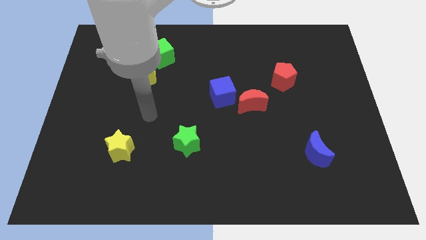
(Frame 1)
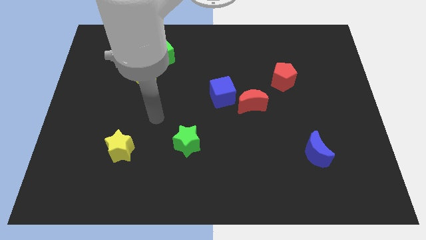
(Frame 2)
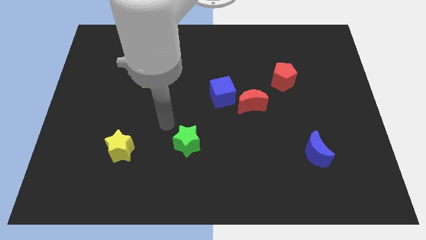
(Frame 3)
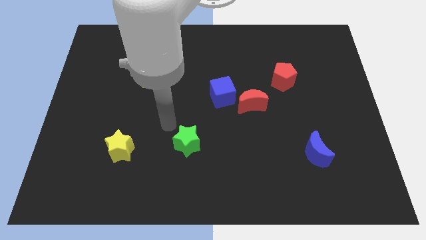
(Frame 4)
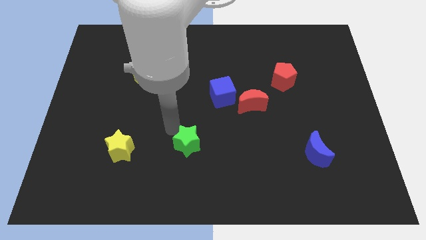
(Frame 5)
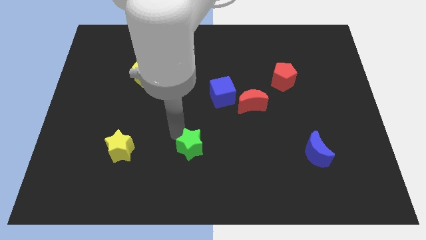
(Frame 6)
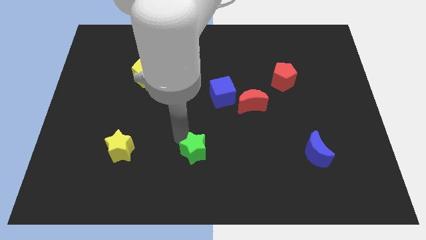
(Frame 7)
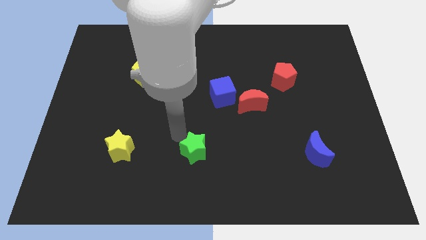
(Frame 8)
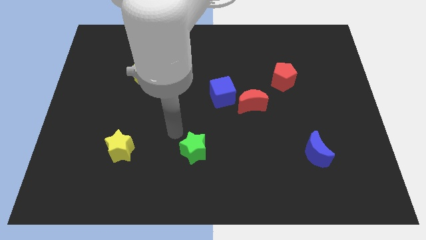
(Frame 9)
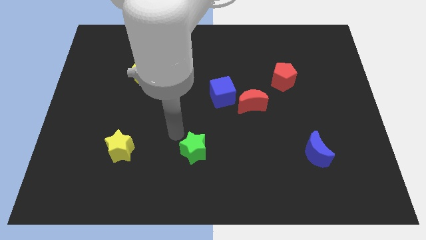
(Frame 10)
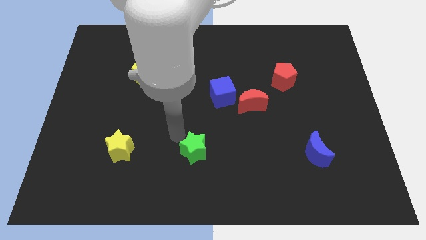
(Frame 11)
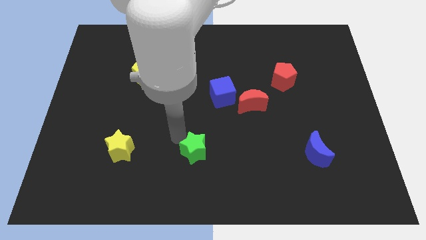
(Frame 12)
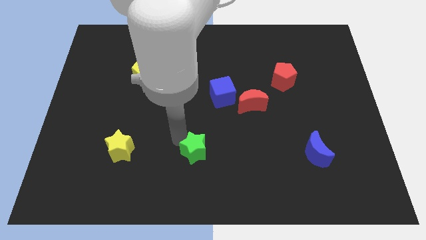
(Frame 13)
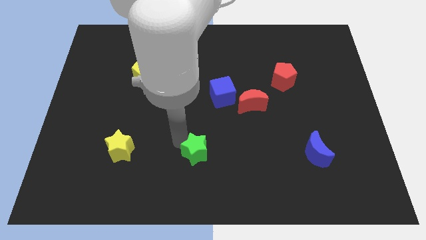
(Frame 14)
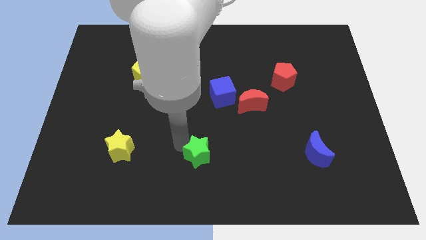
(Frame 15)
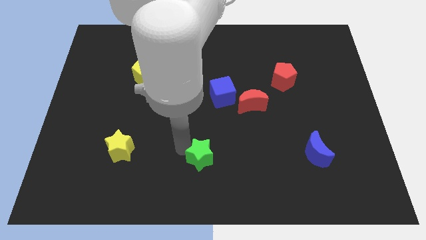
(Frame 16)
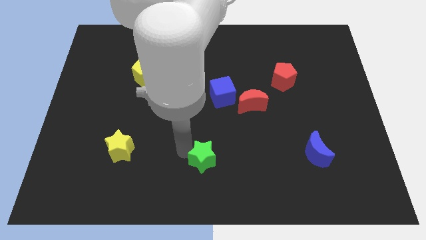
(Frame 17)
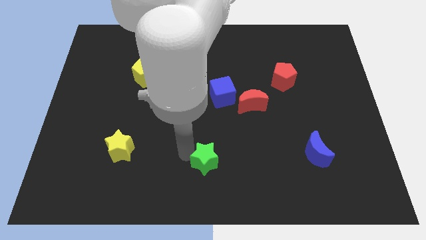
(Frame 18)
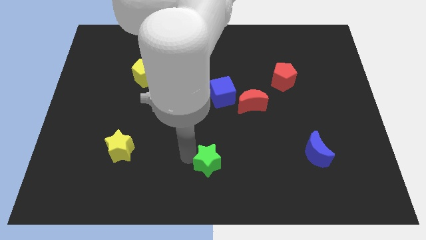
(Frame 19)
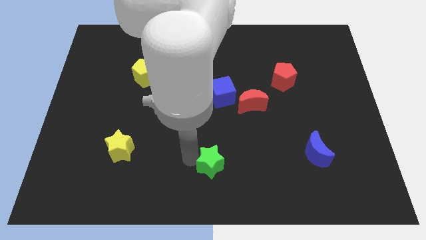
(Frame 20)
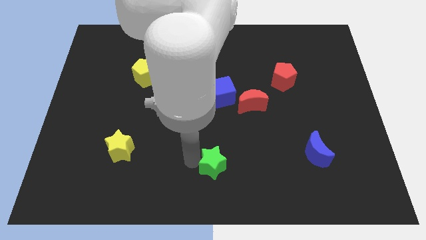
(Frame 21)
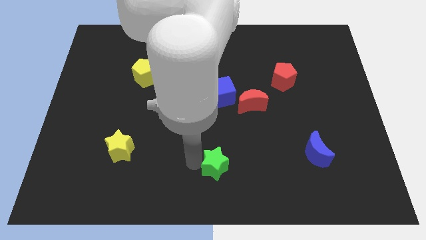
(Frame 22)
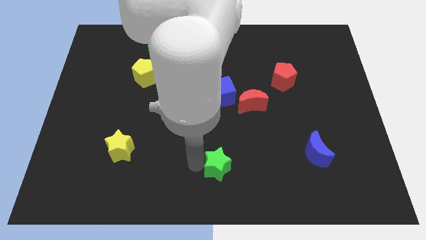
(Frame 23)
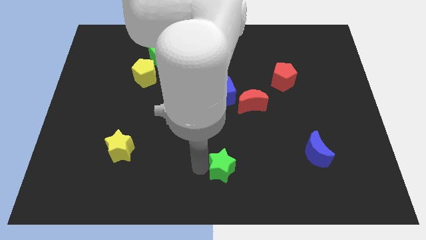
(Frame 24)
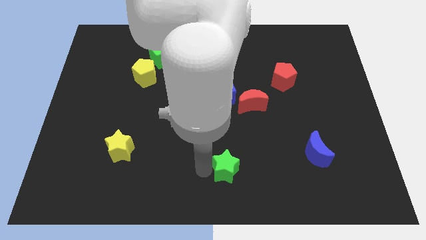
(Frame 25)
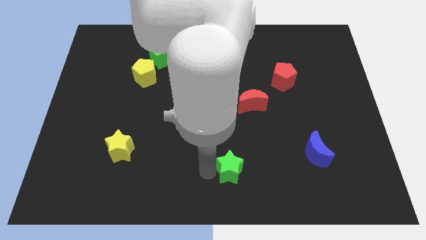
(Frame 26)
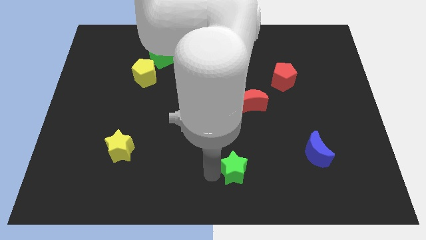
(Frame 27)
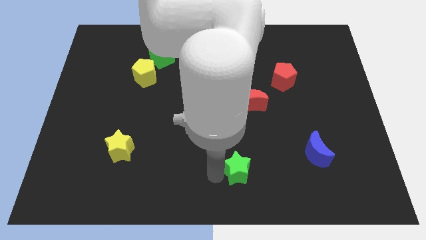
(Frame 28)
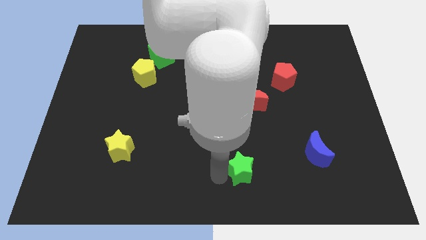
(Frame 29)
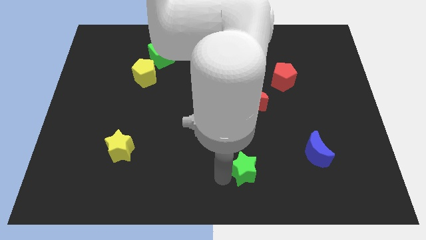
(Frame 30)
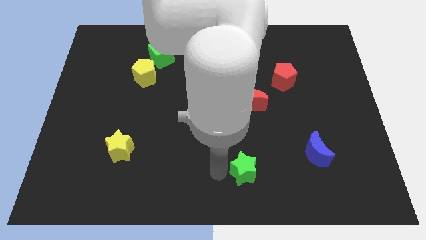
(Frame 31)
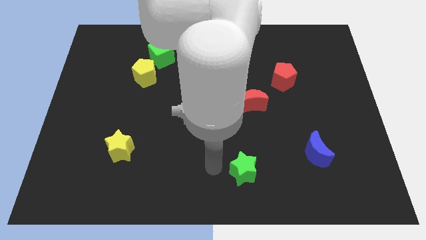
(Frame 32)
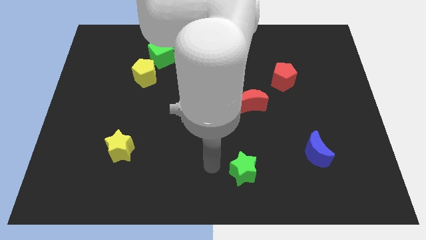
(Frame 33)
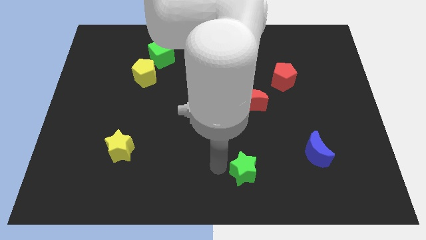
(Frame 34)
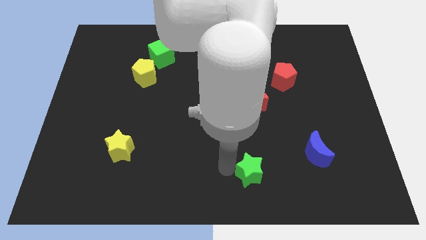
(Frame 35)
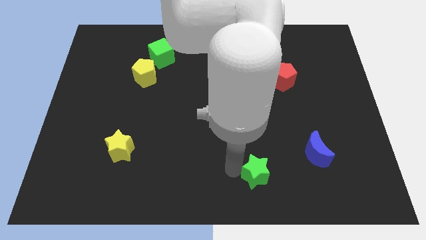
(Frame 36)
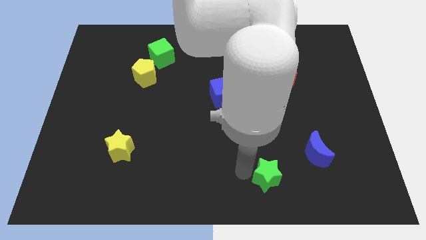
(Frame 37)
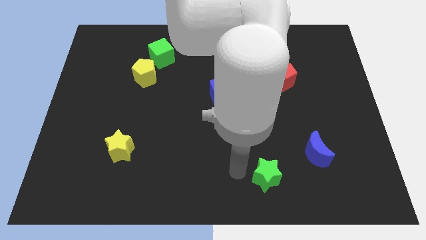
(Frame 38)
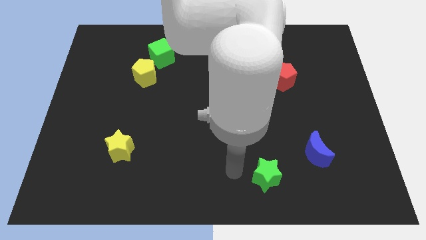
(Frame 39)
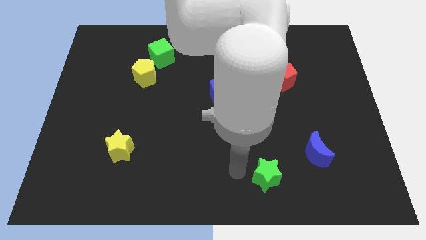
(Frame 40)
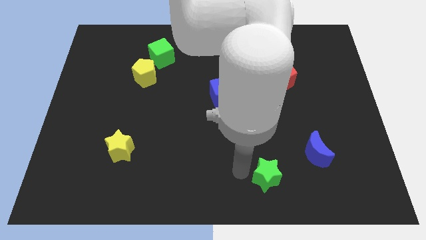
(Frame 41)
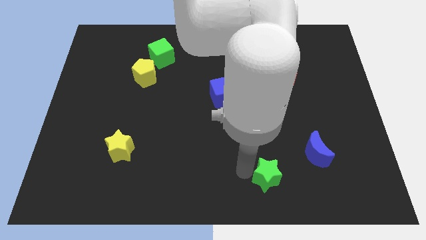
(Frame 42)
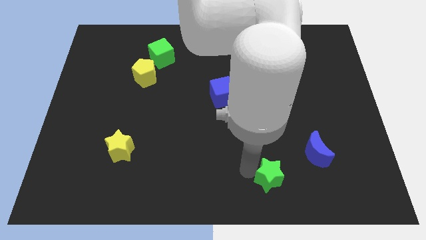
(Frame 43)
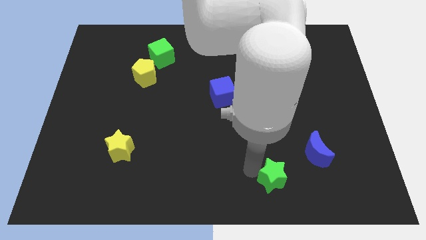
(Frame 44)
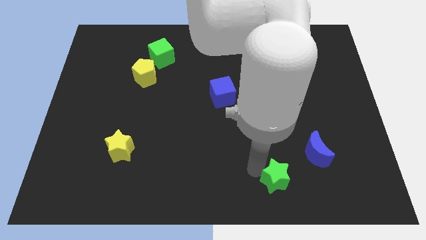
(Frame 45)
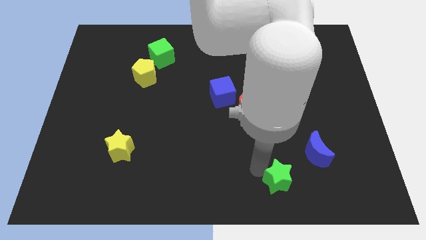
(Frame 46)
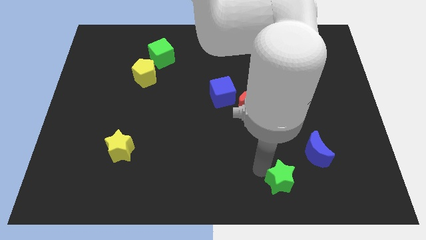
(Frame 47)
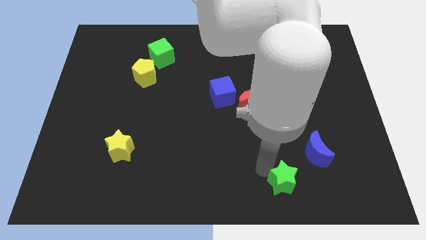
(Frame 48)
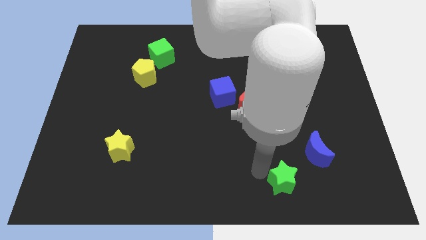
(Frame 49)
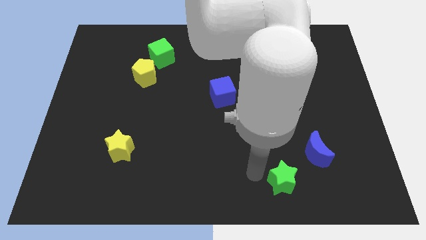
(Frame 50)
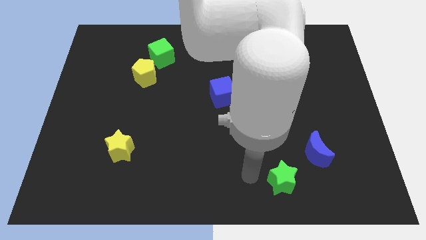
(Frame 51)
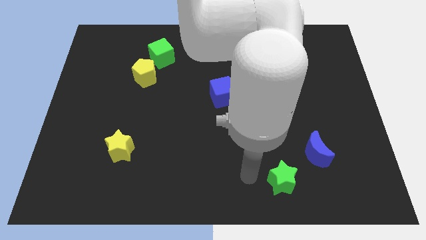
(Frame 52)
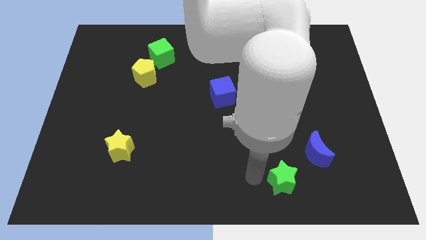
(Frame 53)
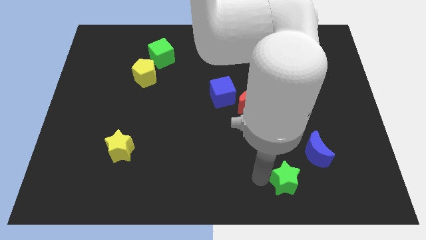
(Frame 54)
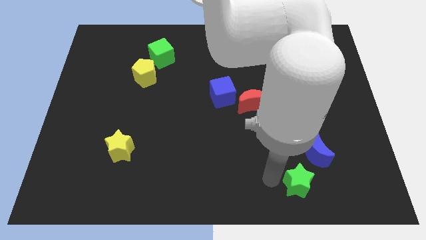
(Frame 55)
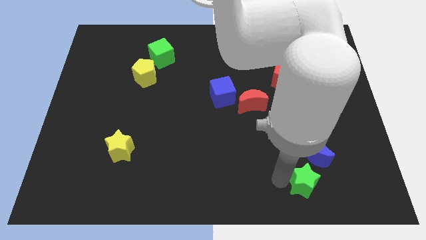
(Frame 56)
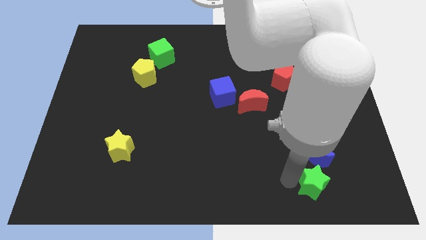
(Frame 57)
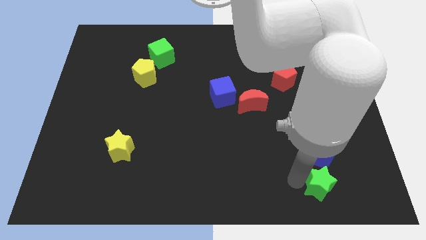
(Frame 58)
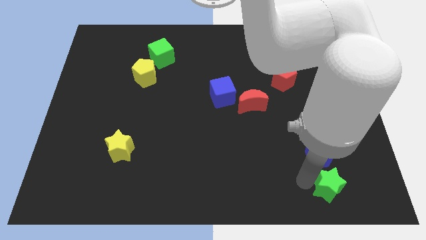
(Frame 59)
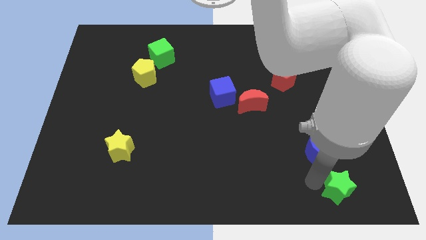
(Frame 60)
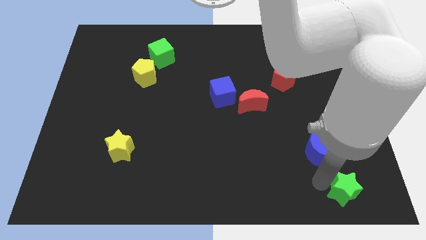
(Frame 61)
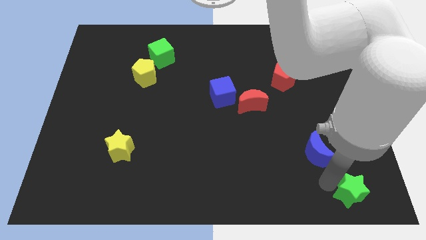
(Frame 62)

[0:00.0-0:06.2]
slide the green star to the bottom right of the board
